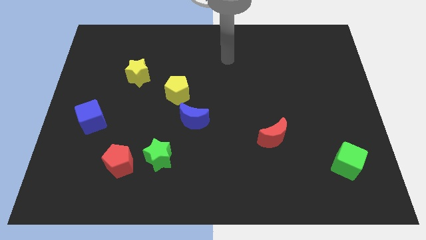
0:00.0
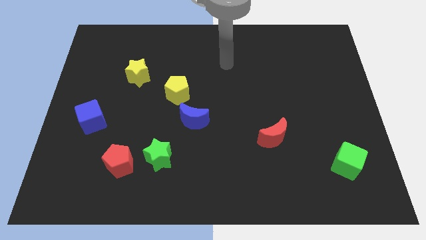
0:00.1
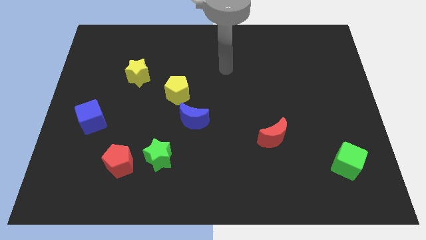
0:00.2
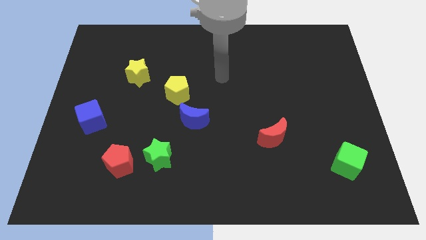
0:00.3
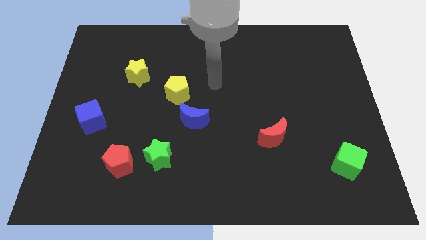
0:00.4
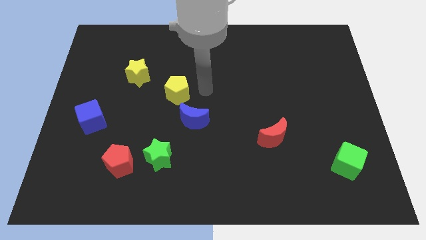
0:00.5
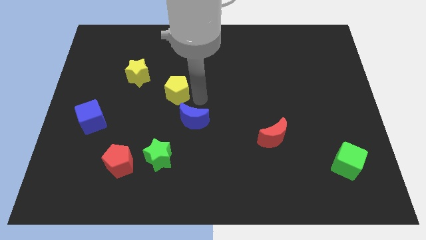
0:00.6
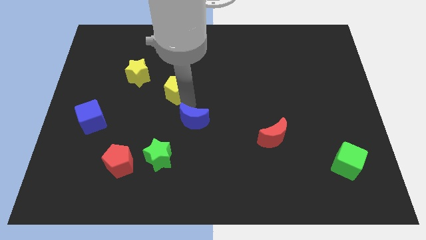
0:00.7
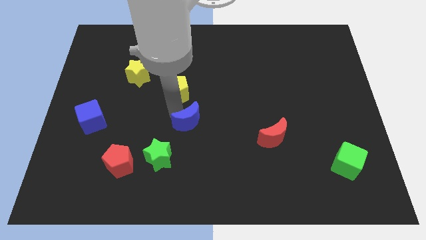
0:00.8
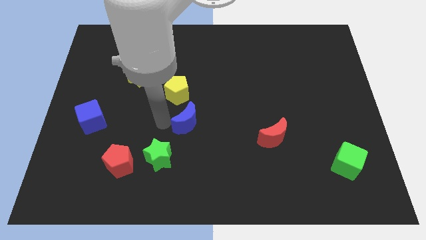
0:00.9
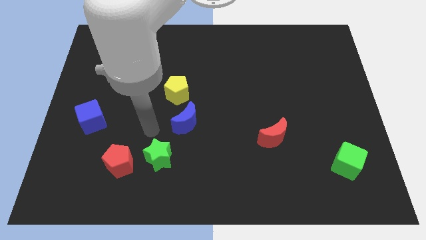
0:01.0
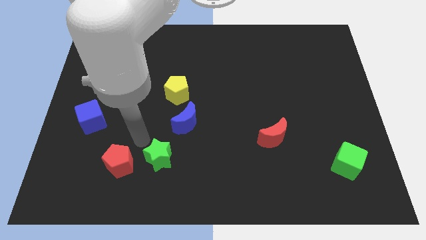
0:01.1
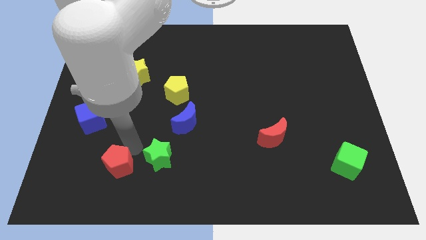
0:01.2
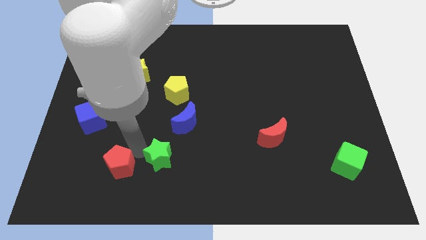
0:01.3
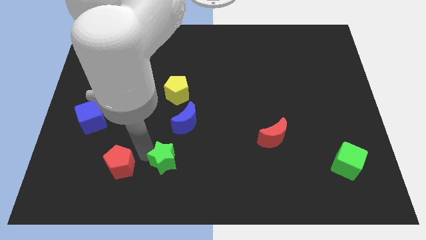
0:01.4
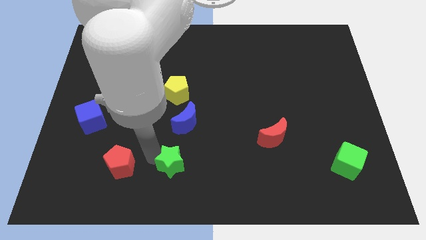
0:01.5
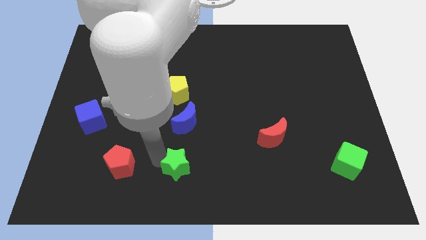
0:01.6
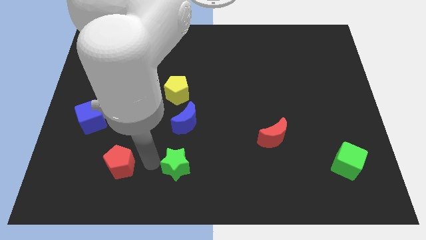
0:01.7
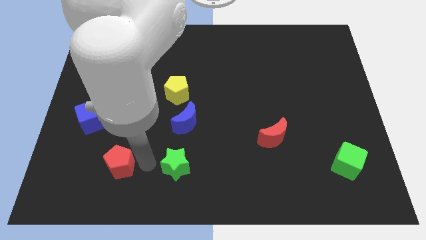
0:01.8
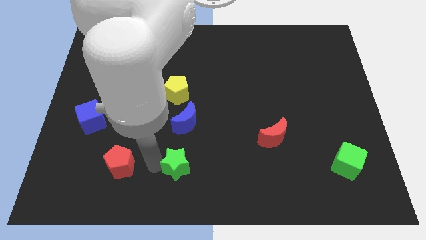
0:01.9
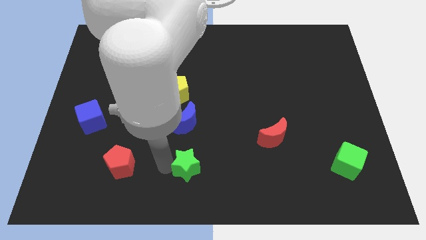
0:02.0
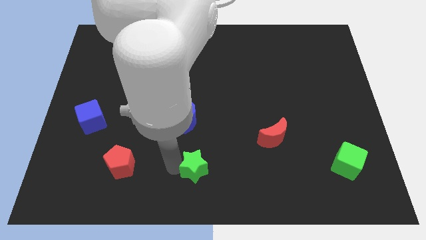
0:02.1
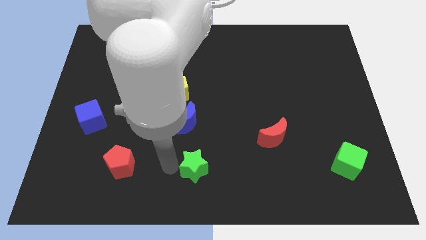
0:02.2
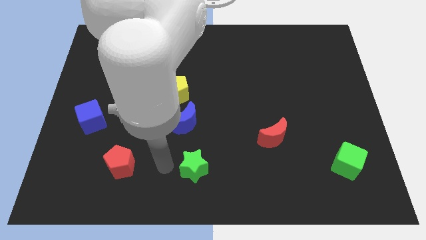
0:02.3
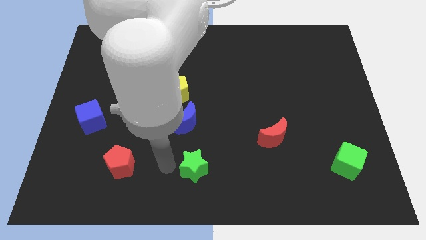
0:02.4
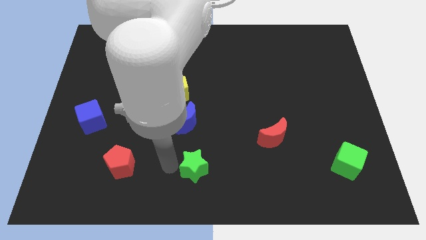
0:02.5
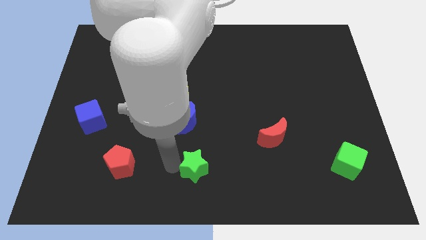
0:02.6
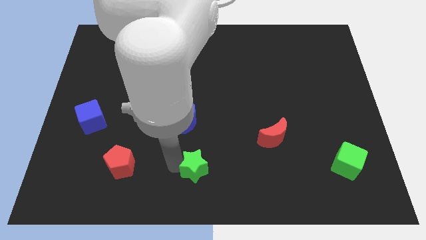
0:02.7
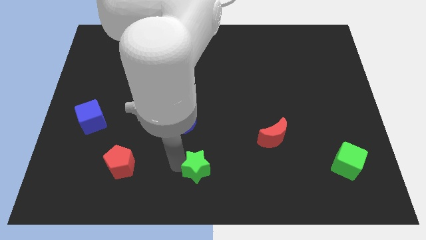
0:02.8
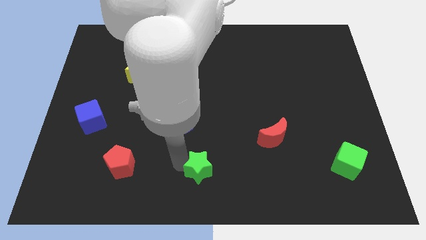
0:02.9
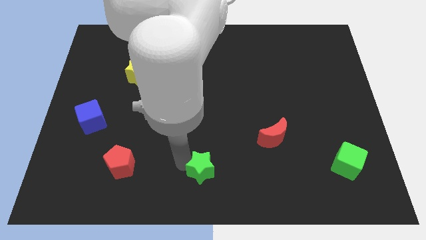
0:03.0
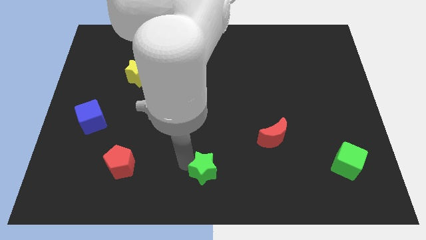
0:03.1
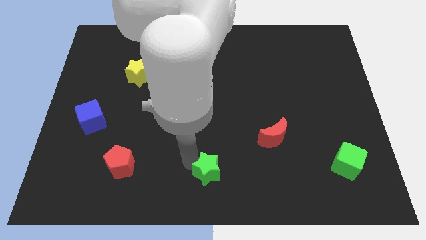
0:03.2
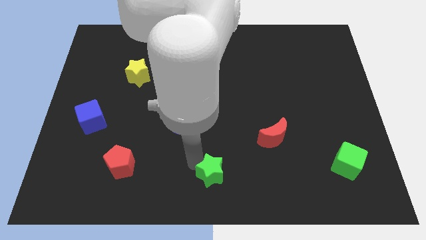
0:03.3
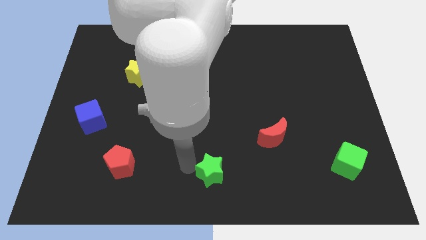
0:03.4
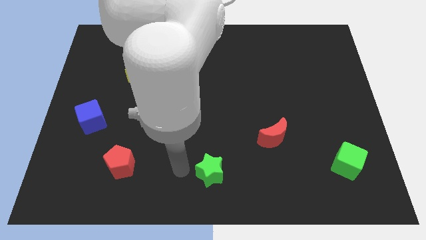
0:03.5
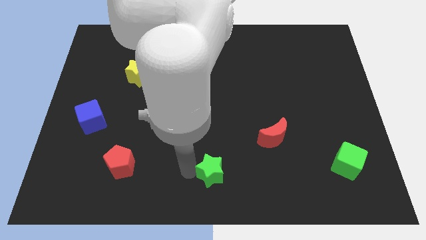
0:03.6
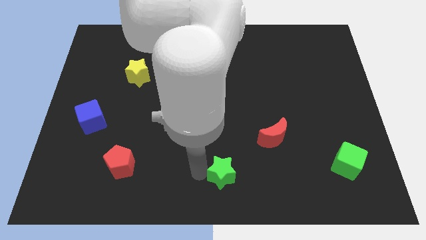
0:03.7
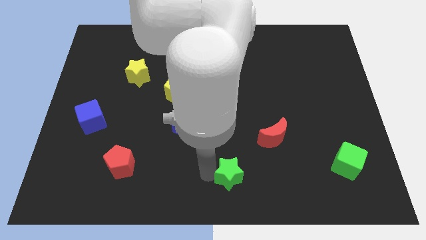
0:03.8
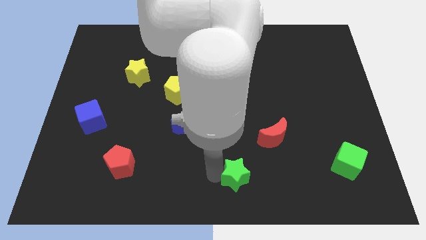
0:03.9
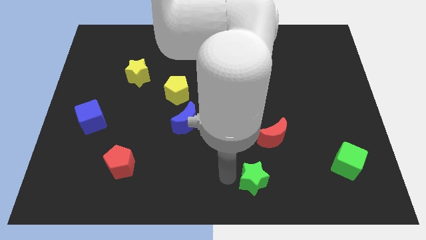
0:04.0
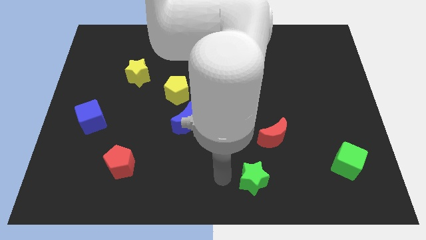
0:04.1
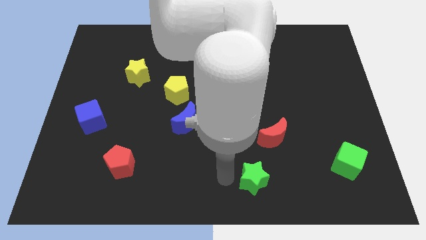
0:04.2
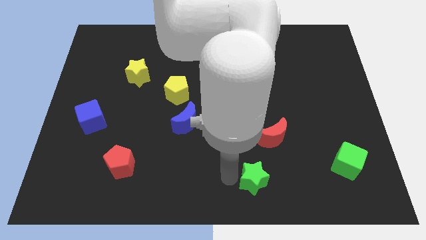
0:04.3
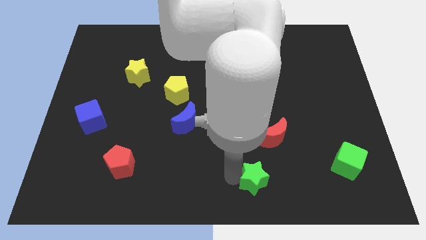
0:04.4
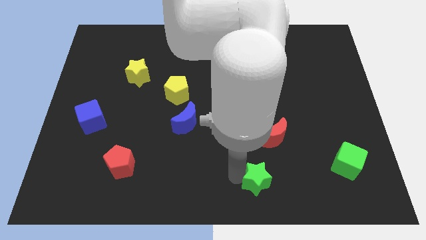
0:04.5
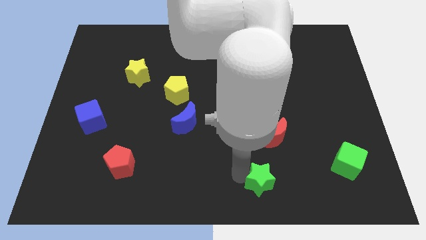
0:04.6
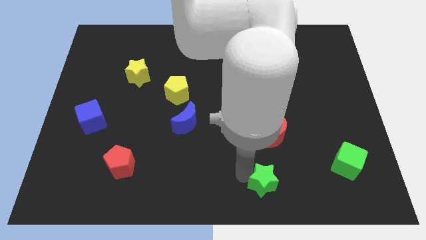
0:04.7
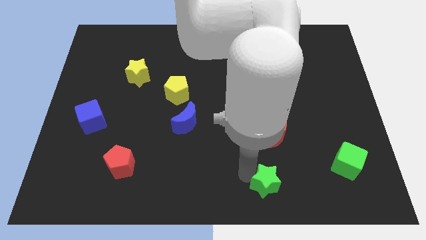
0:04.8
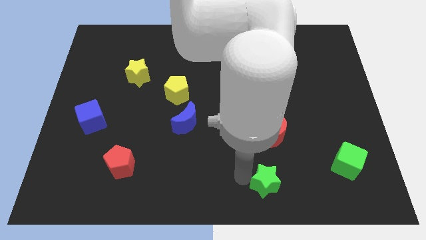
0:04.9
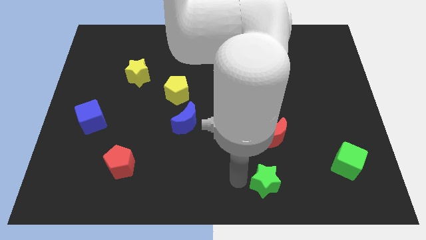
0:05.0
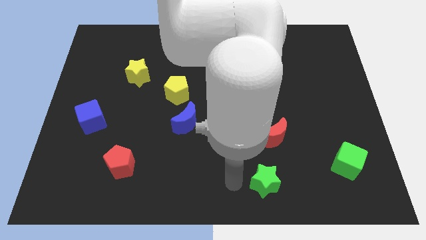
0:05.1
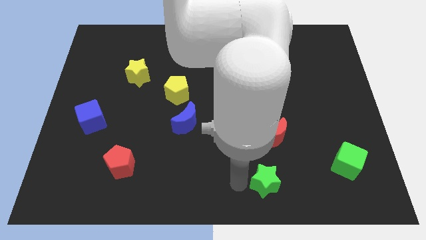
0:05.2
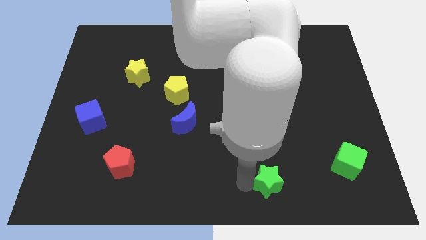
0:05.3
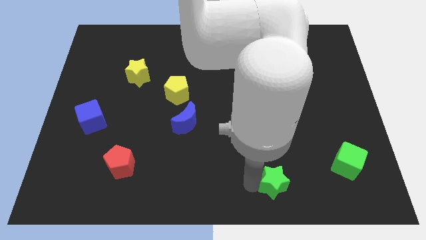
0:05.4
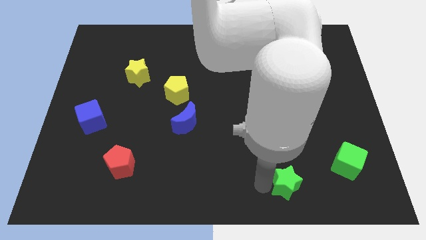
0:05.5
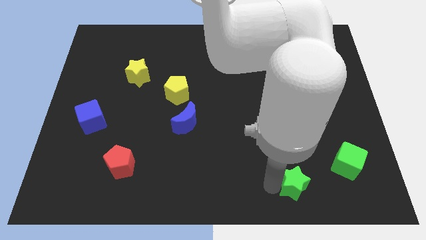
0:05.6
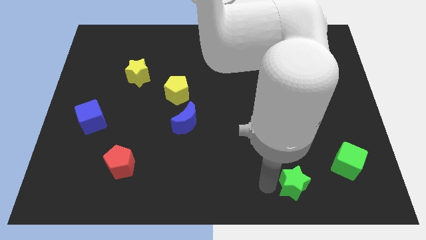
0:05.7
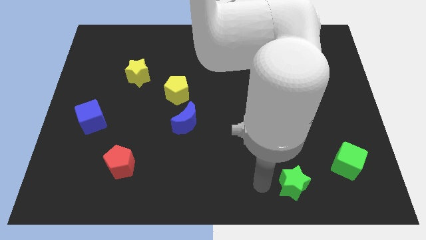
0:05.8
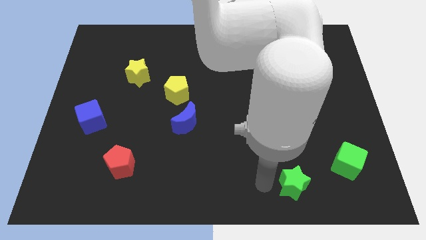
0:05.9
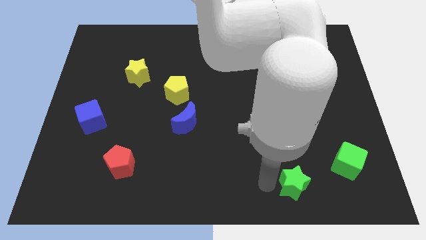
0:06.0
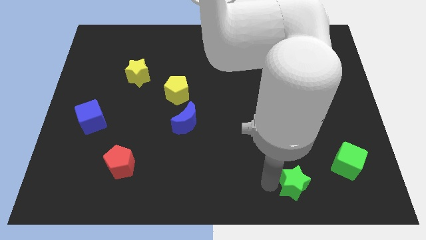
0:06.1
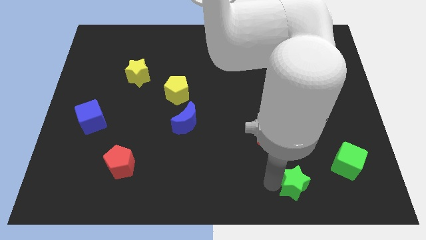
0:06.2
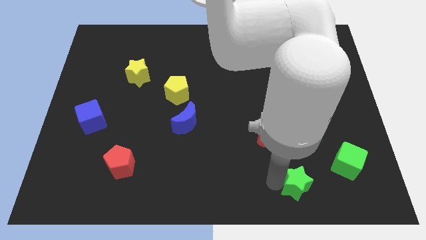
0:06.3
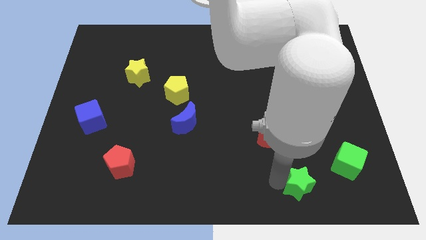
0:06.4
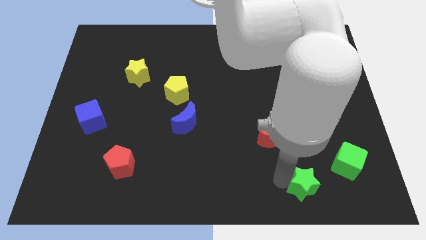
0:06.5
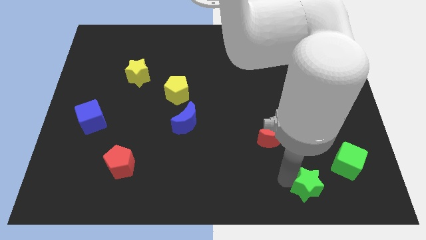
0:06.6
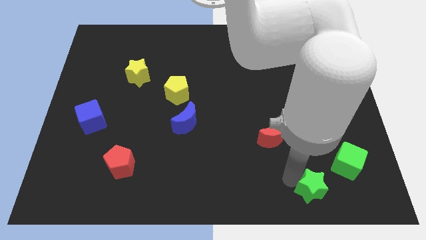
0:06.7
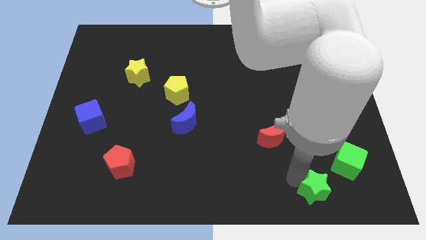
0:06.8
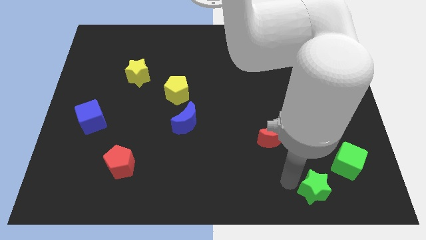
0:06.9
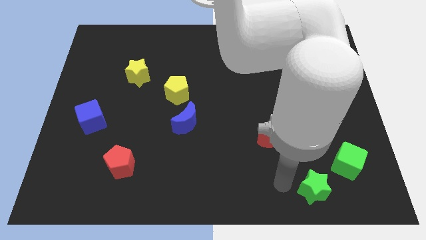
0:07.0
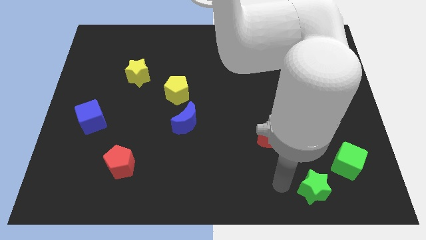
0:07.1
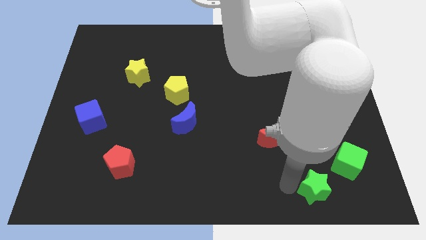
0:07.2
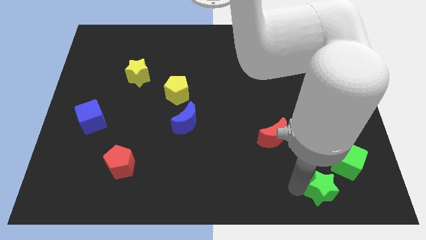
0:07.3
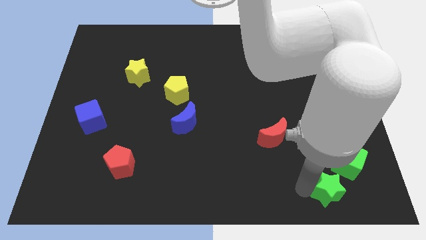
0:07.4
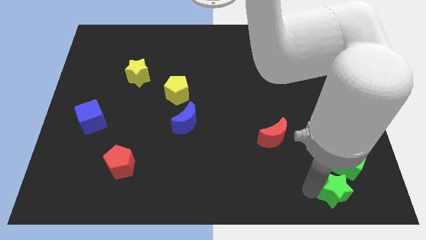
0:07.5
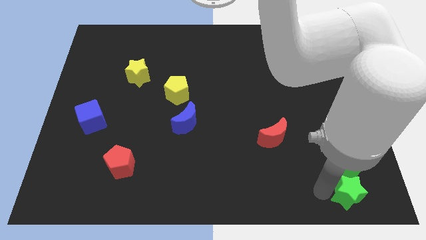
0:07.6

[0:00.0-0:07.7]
move the green star to the bottom right of the board
